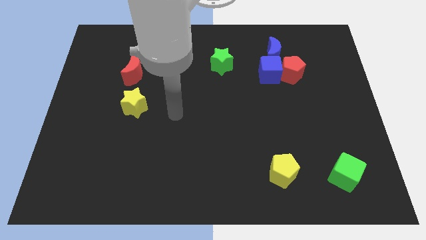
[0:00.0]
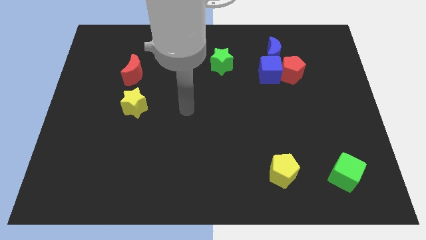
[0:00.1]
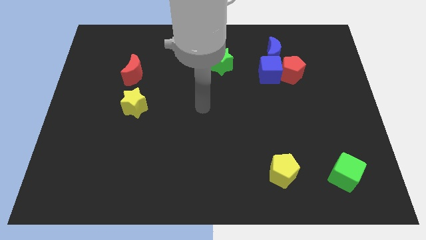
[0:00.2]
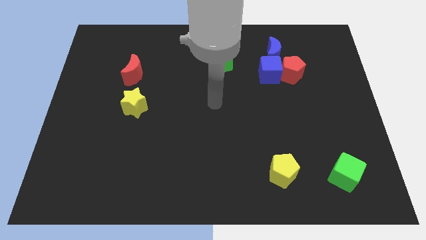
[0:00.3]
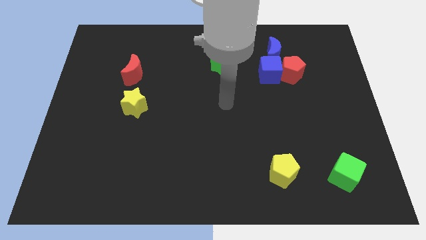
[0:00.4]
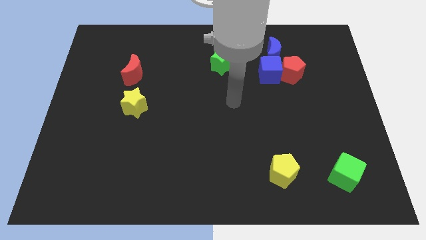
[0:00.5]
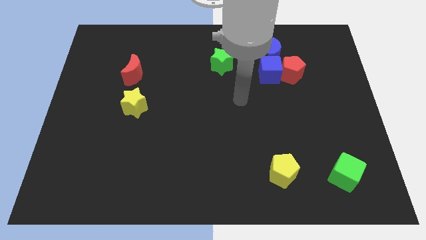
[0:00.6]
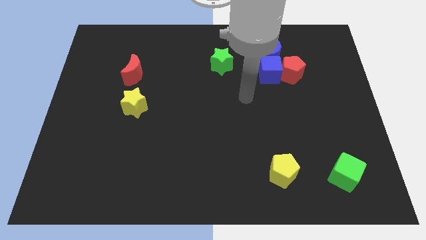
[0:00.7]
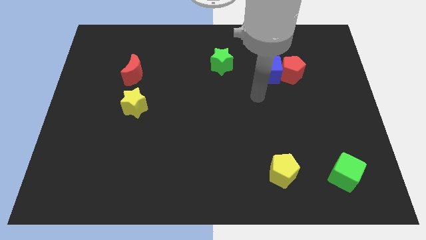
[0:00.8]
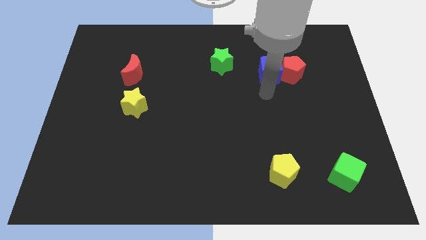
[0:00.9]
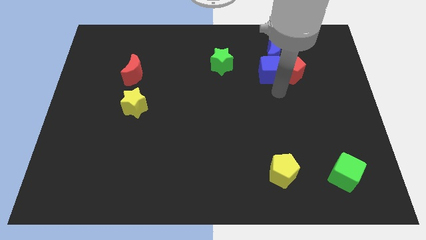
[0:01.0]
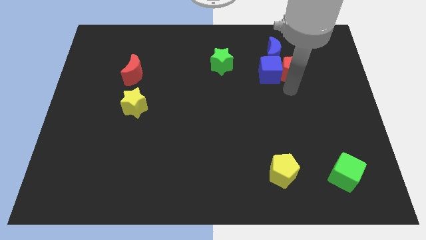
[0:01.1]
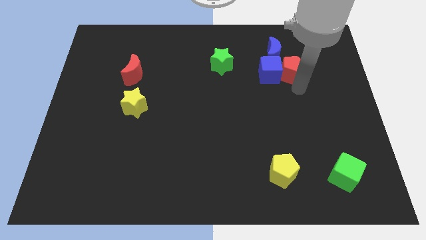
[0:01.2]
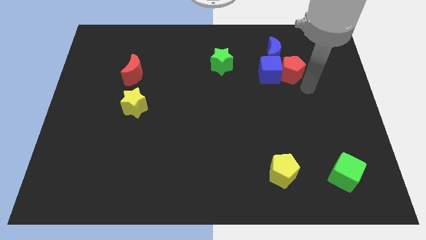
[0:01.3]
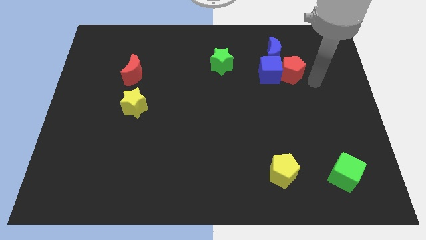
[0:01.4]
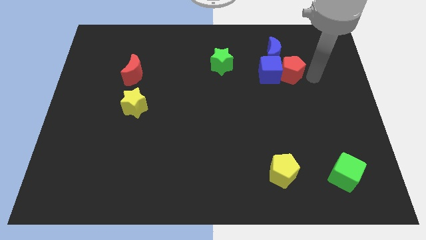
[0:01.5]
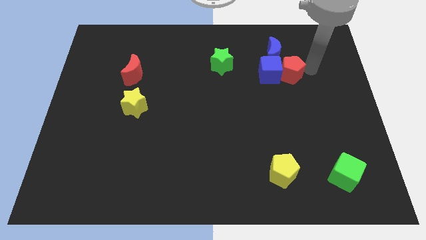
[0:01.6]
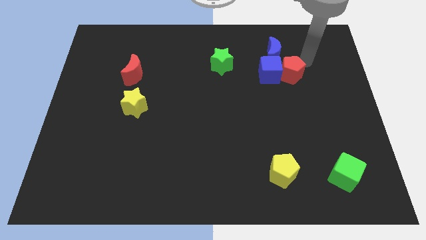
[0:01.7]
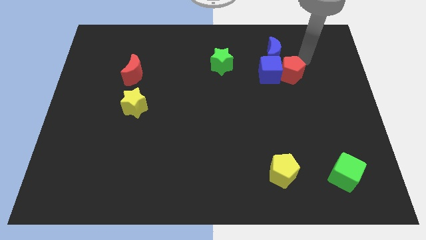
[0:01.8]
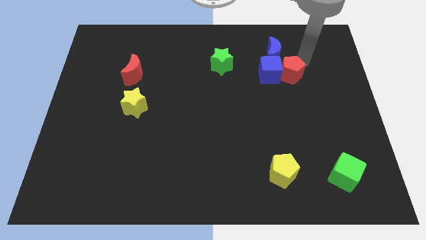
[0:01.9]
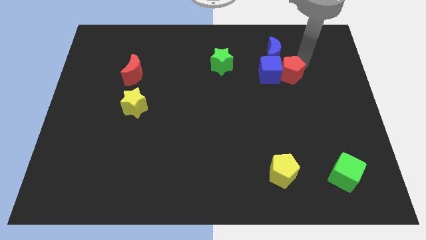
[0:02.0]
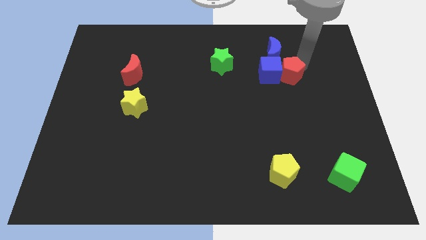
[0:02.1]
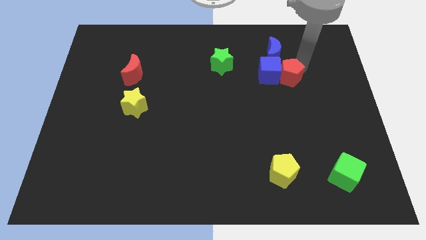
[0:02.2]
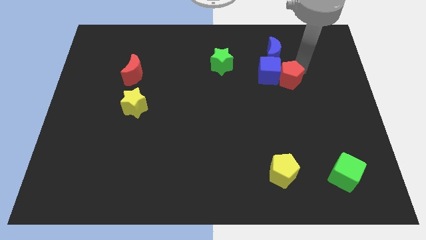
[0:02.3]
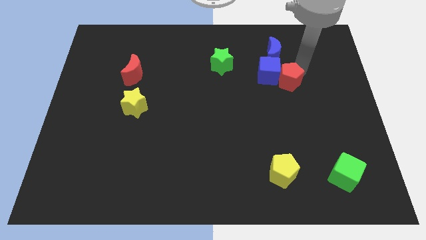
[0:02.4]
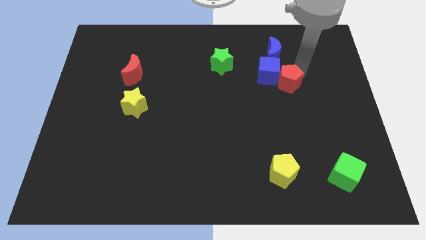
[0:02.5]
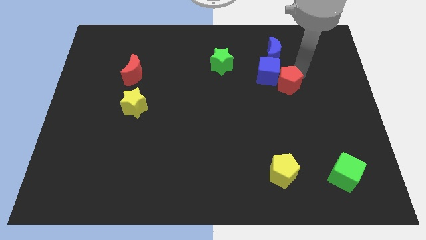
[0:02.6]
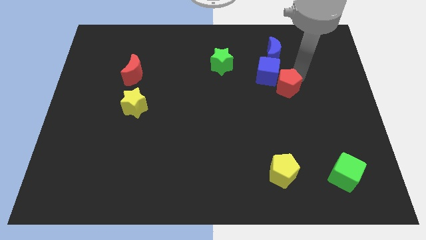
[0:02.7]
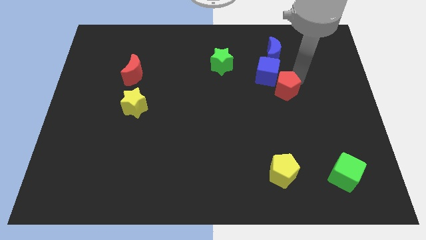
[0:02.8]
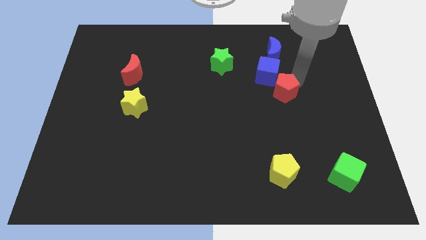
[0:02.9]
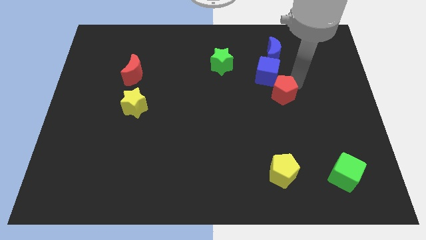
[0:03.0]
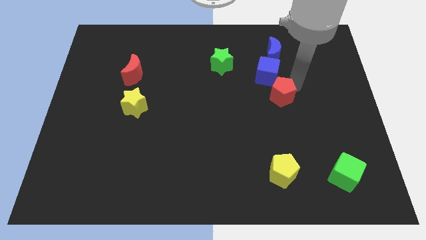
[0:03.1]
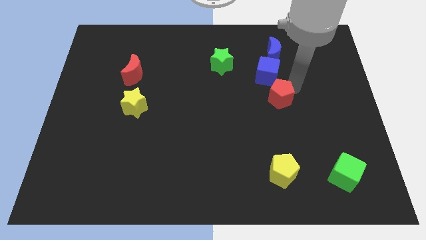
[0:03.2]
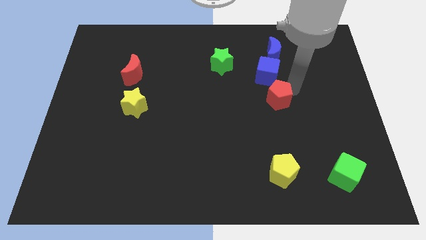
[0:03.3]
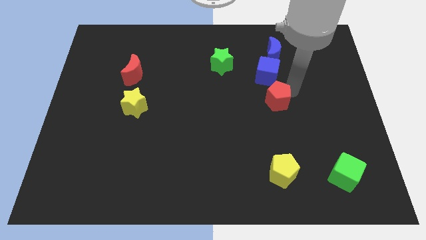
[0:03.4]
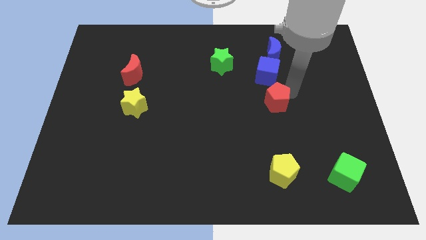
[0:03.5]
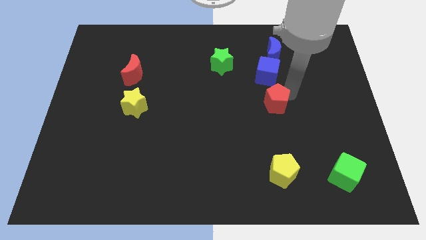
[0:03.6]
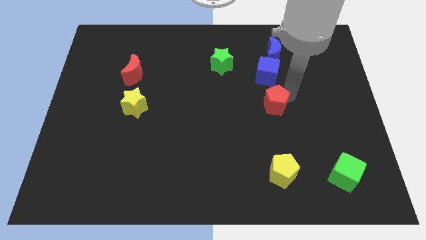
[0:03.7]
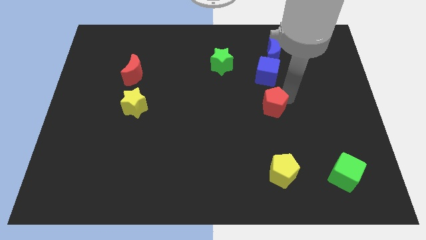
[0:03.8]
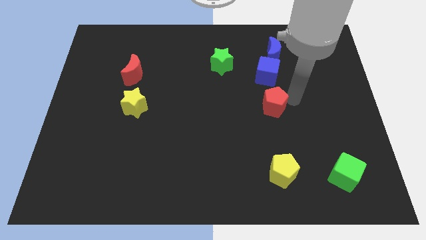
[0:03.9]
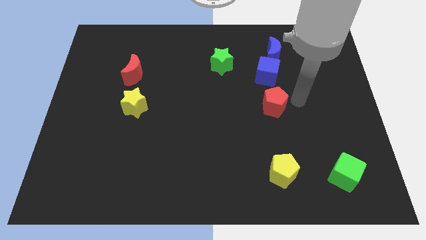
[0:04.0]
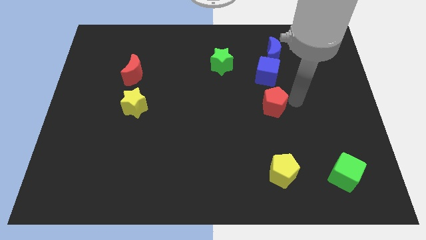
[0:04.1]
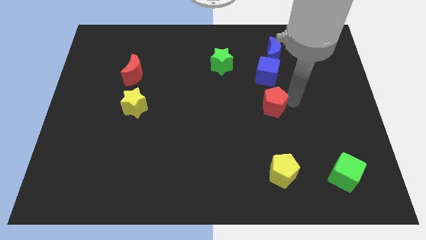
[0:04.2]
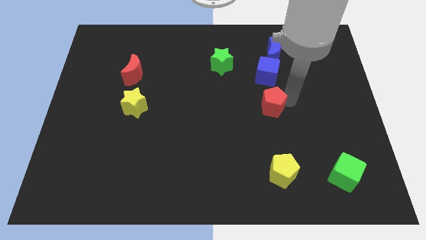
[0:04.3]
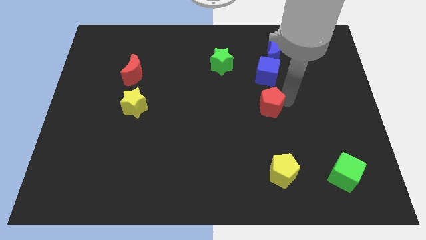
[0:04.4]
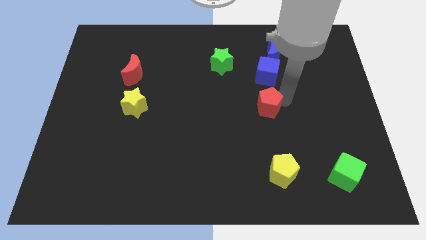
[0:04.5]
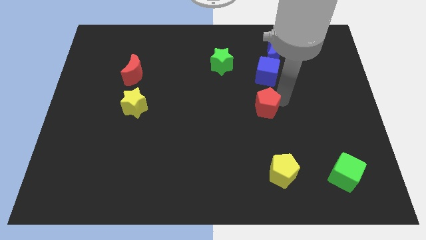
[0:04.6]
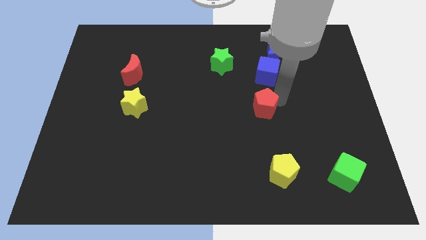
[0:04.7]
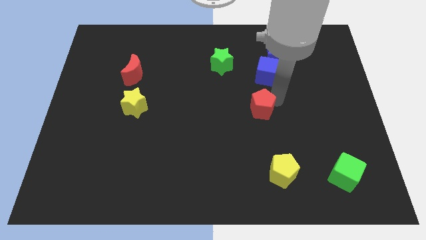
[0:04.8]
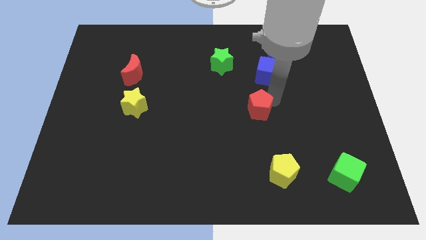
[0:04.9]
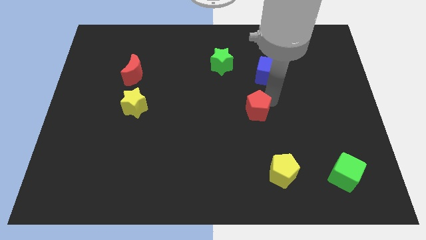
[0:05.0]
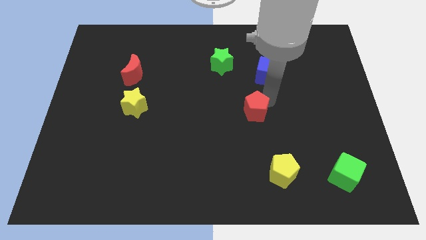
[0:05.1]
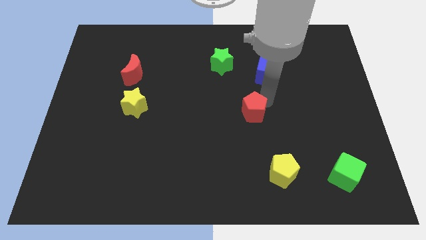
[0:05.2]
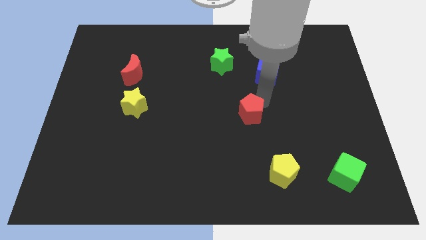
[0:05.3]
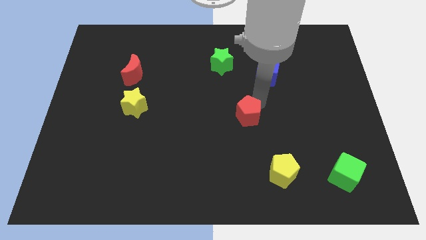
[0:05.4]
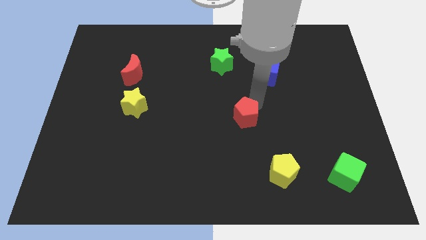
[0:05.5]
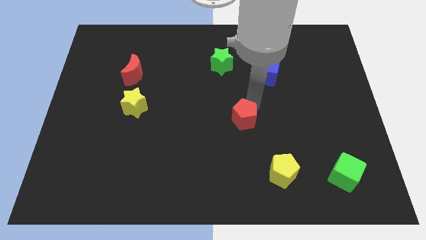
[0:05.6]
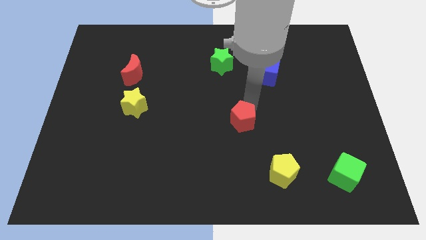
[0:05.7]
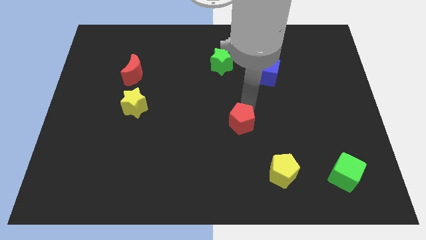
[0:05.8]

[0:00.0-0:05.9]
slide the red pentagon diagonally downwards and to the left

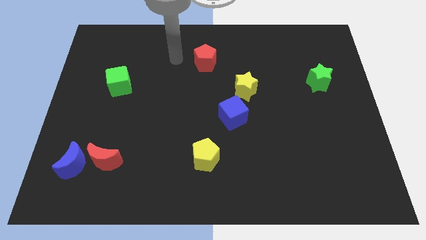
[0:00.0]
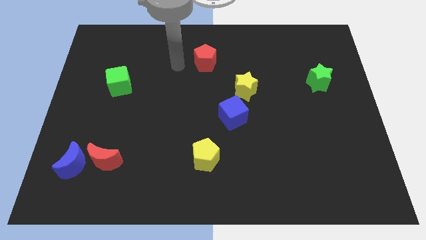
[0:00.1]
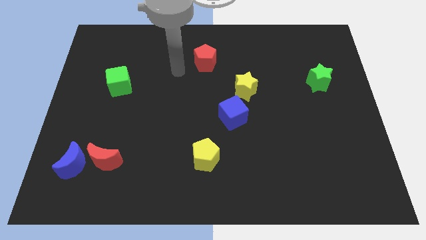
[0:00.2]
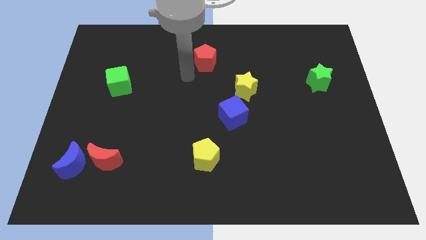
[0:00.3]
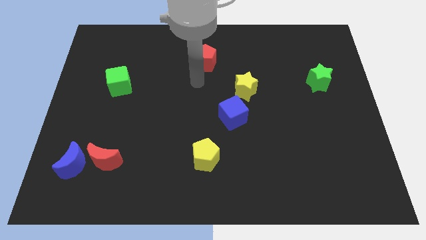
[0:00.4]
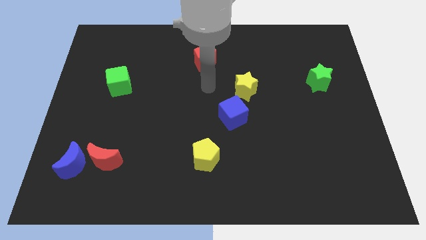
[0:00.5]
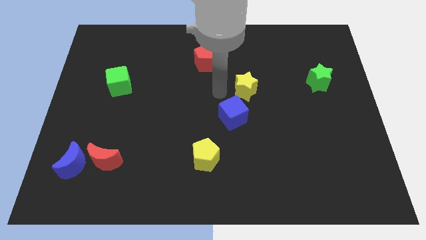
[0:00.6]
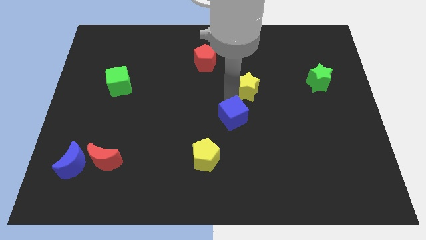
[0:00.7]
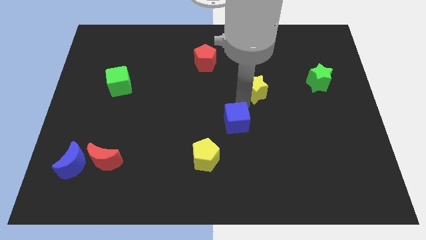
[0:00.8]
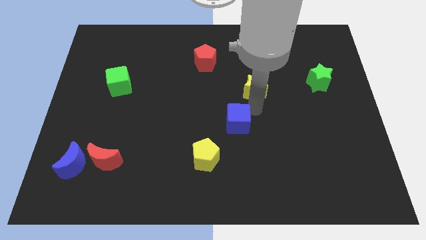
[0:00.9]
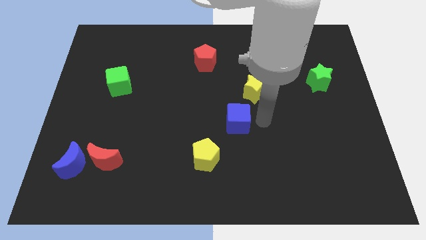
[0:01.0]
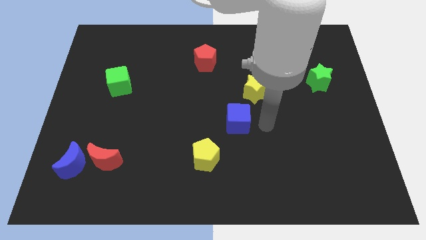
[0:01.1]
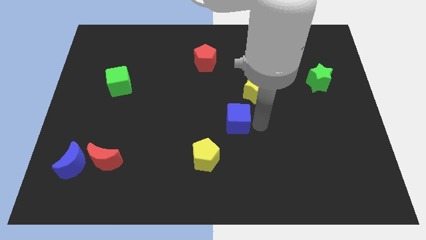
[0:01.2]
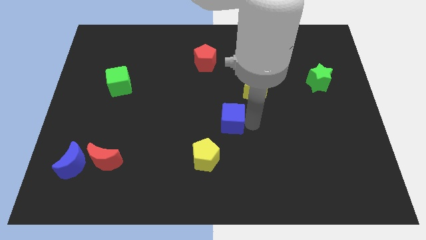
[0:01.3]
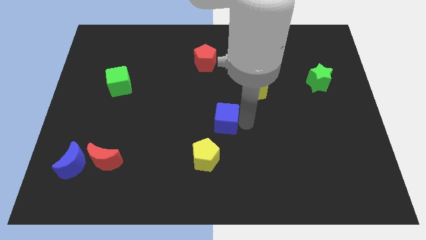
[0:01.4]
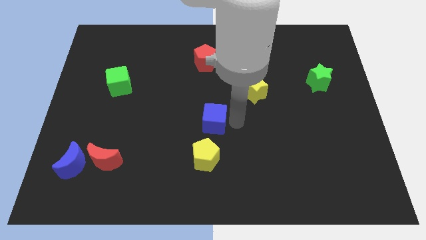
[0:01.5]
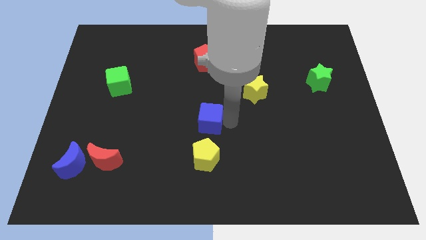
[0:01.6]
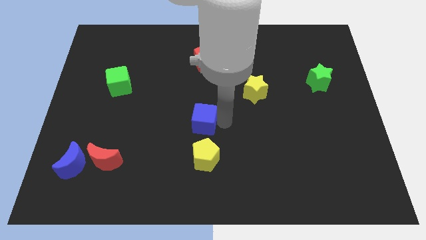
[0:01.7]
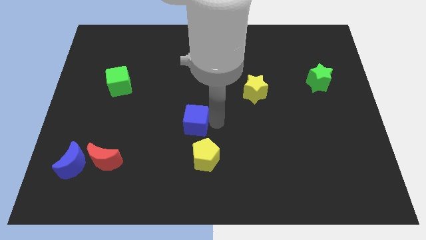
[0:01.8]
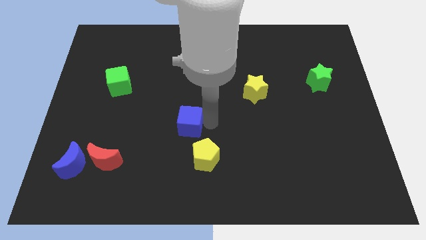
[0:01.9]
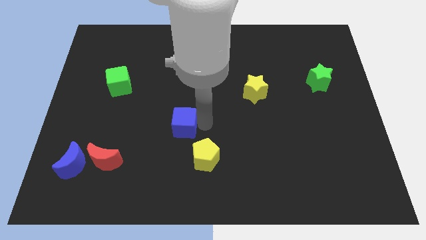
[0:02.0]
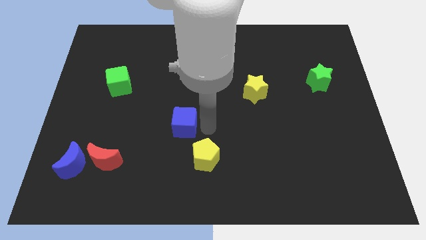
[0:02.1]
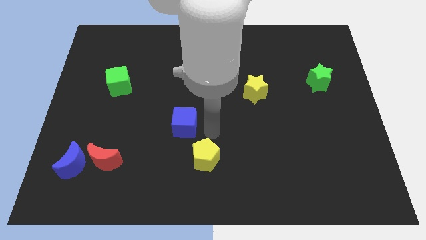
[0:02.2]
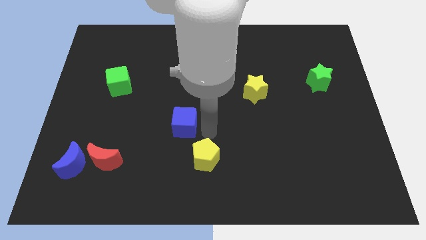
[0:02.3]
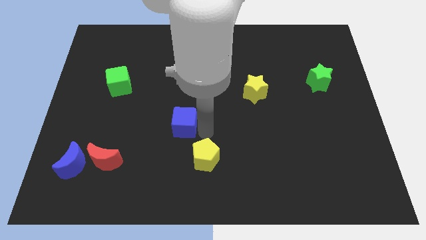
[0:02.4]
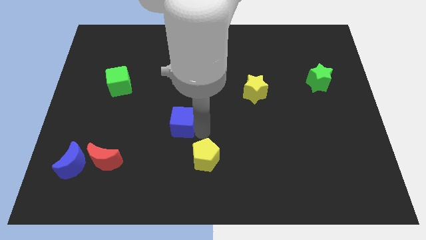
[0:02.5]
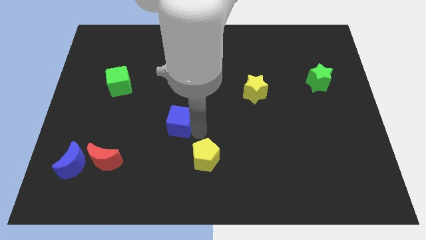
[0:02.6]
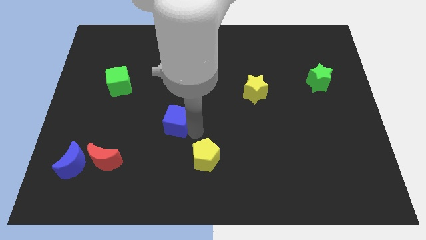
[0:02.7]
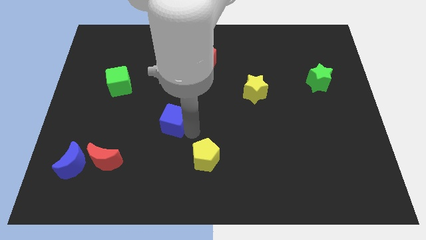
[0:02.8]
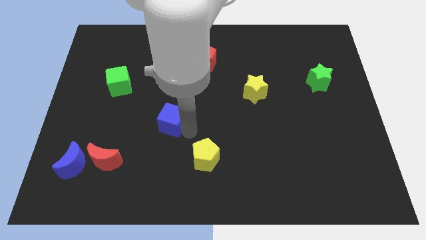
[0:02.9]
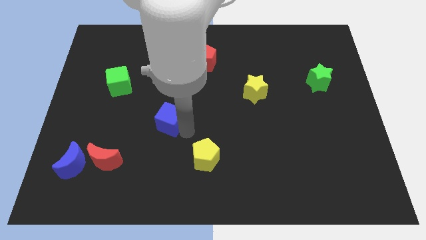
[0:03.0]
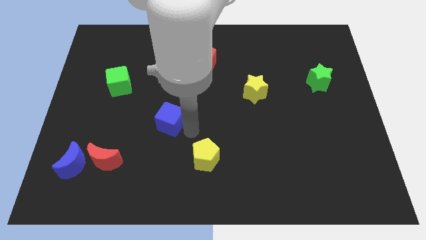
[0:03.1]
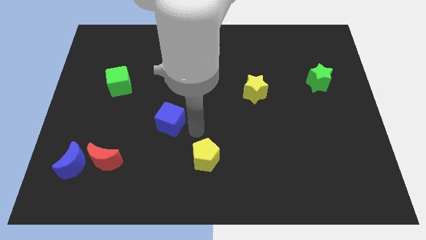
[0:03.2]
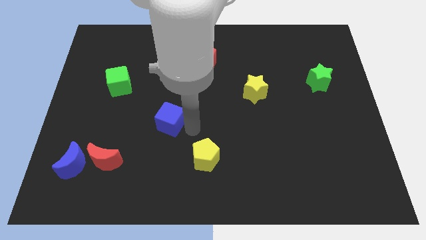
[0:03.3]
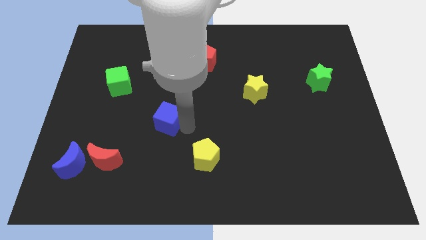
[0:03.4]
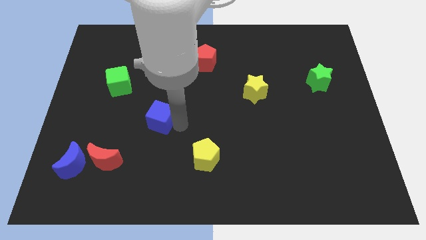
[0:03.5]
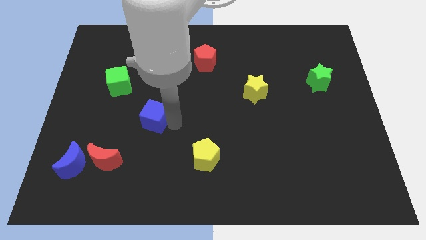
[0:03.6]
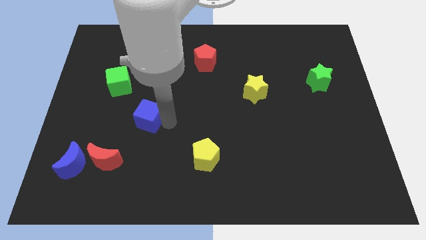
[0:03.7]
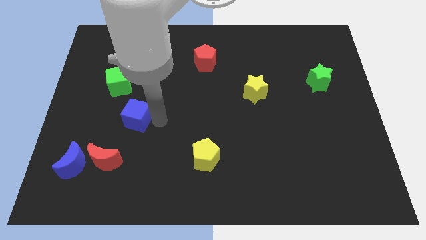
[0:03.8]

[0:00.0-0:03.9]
slide the blue cube to the left
